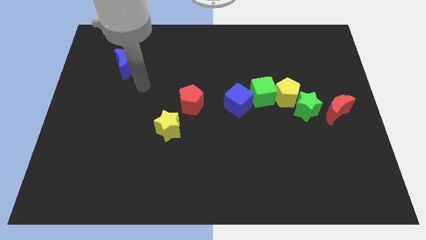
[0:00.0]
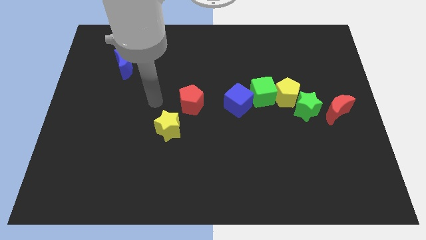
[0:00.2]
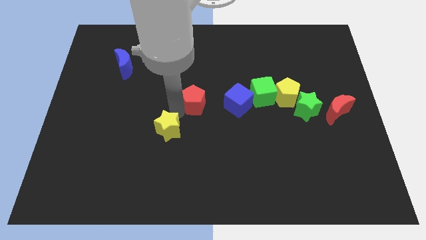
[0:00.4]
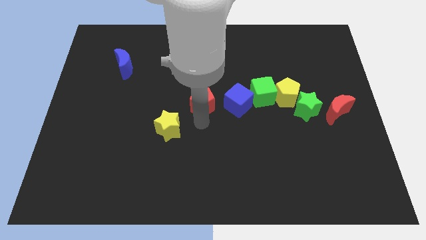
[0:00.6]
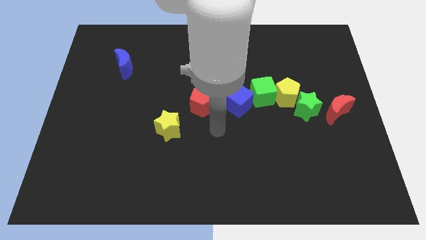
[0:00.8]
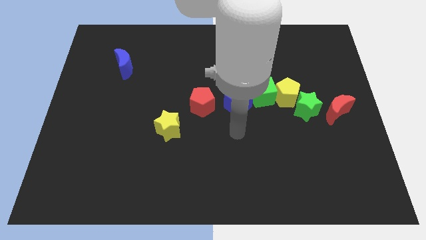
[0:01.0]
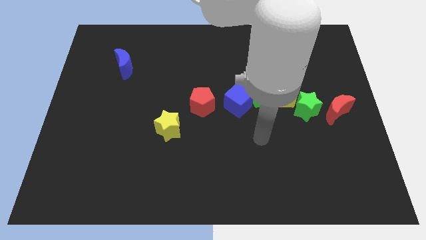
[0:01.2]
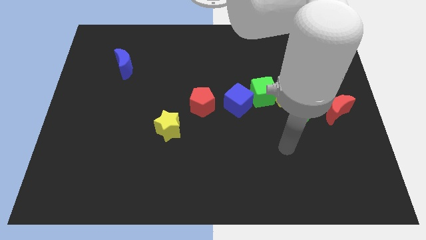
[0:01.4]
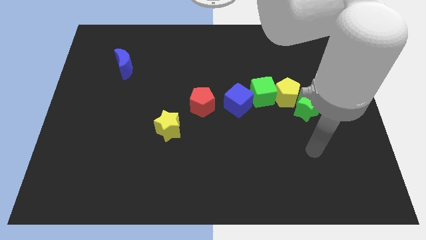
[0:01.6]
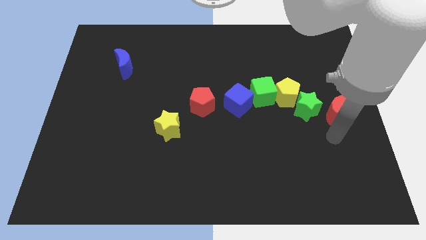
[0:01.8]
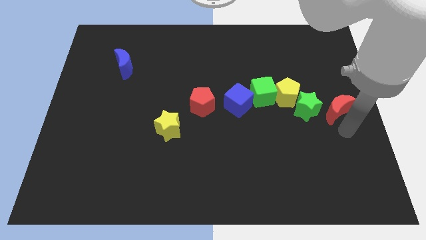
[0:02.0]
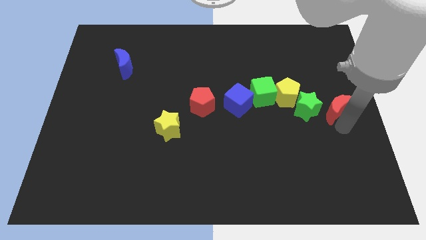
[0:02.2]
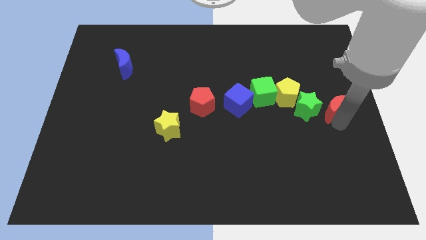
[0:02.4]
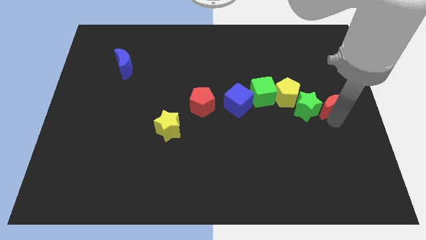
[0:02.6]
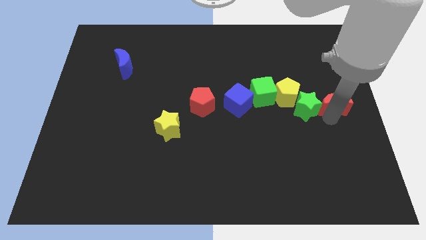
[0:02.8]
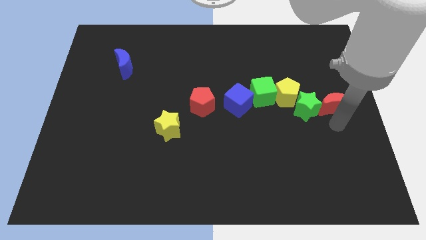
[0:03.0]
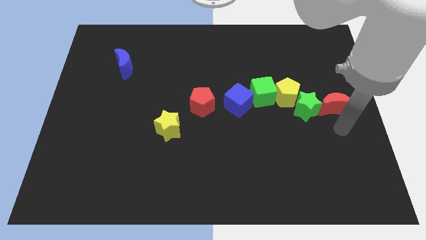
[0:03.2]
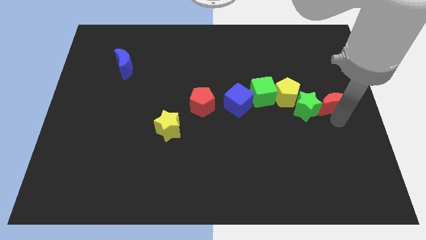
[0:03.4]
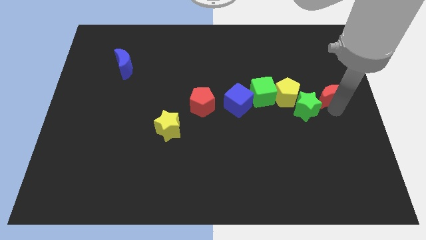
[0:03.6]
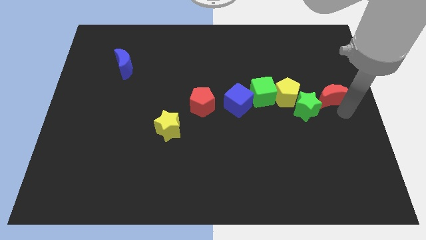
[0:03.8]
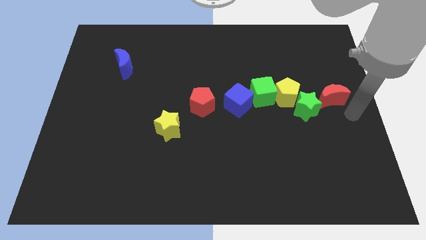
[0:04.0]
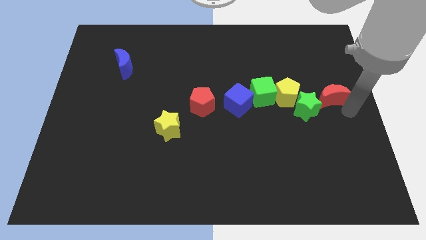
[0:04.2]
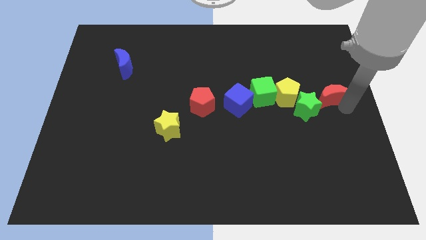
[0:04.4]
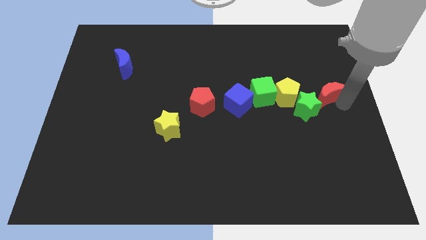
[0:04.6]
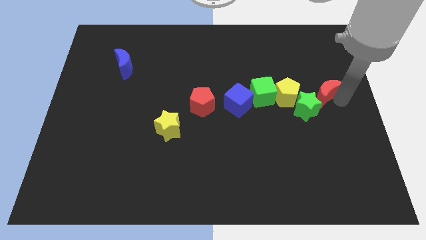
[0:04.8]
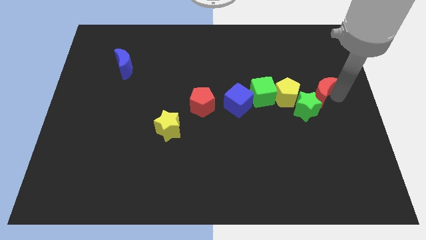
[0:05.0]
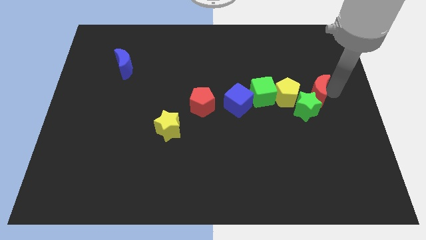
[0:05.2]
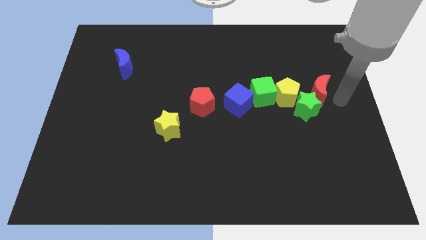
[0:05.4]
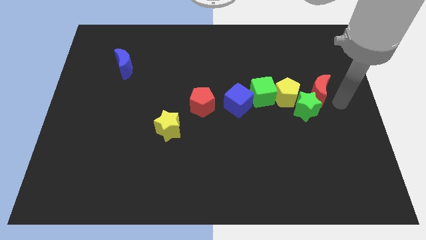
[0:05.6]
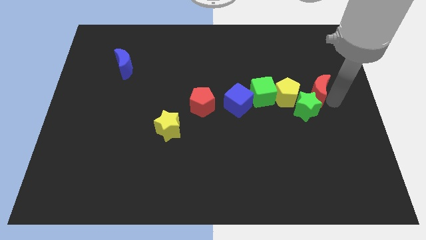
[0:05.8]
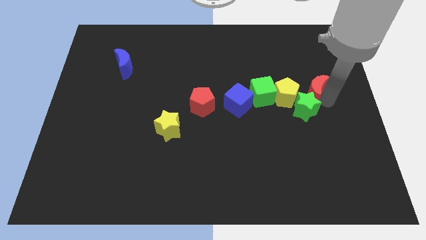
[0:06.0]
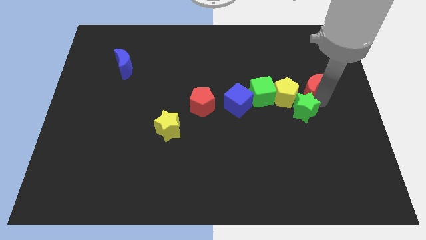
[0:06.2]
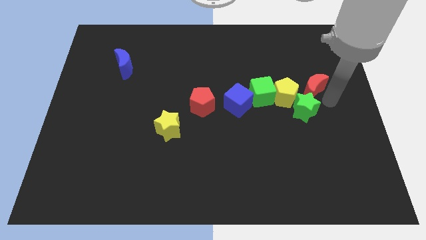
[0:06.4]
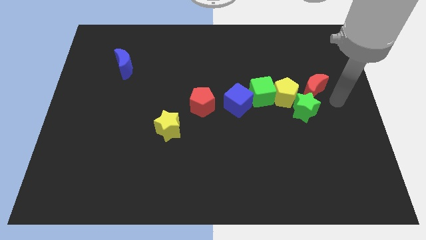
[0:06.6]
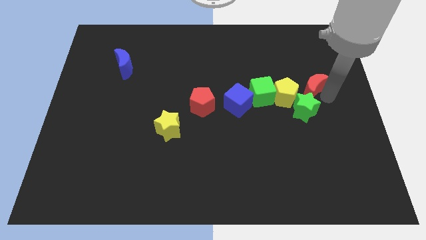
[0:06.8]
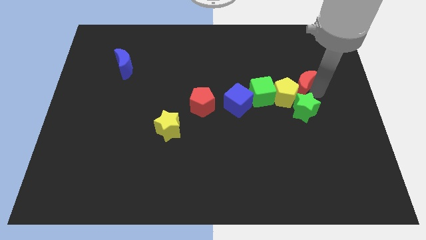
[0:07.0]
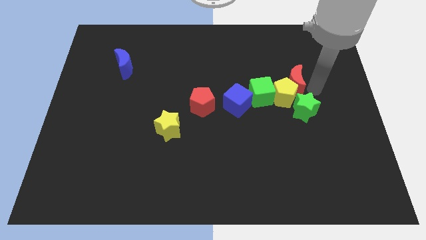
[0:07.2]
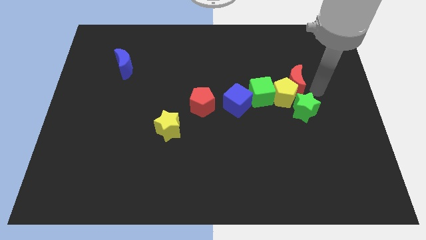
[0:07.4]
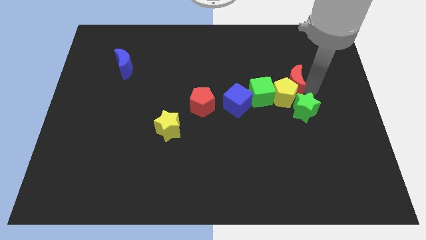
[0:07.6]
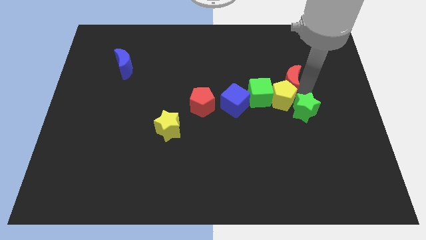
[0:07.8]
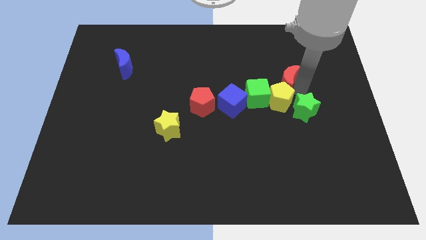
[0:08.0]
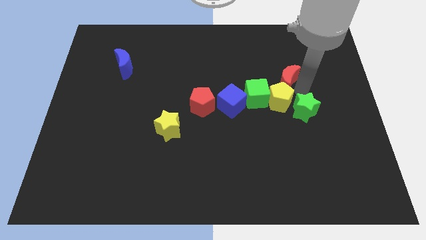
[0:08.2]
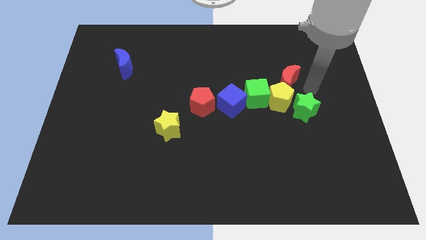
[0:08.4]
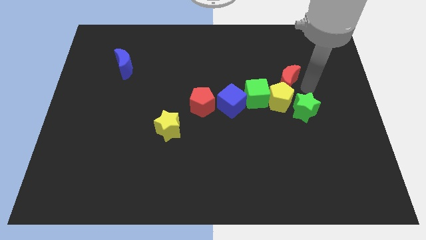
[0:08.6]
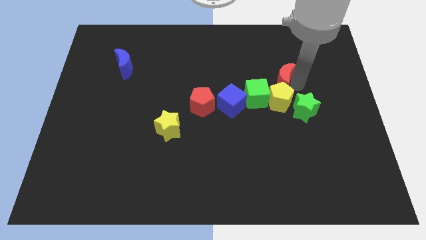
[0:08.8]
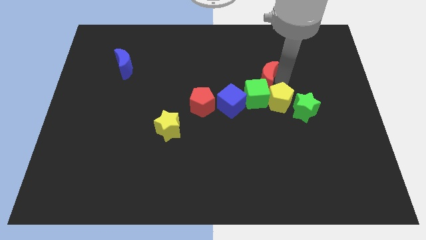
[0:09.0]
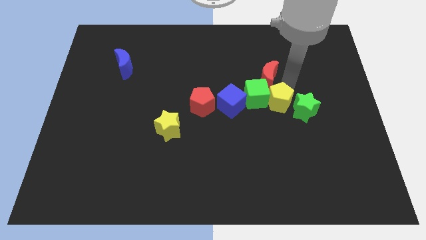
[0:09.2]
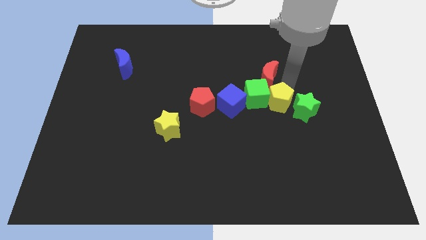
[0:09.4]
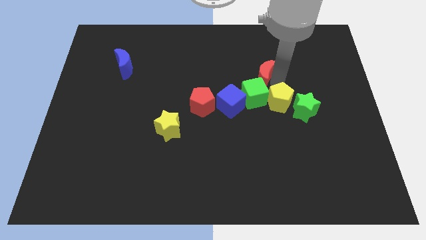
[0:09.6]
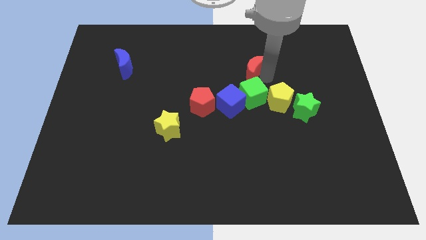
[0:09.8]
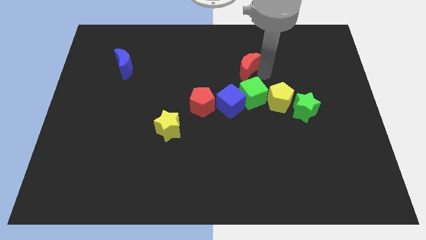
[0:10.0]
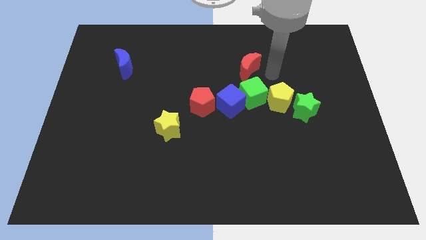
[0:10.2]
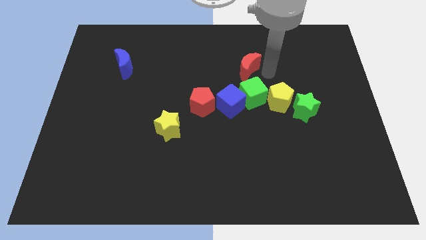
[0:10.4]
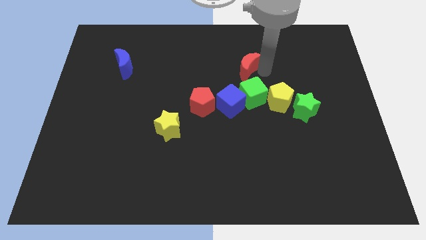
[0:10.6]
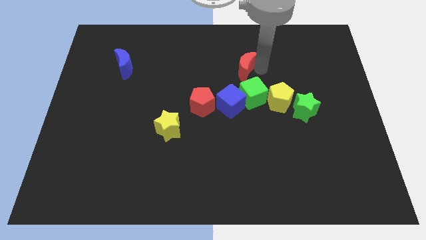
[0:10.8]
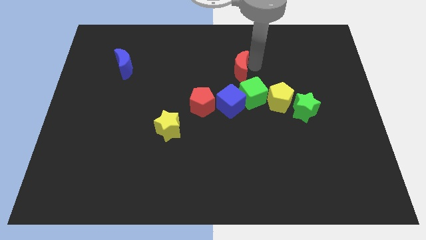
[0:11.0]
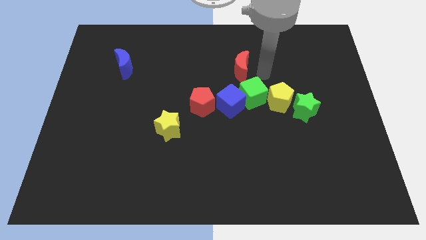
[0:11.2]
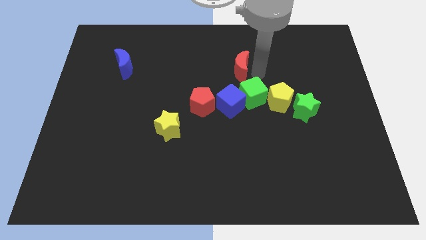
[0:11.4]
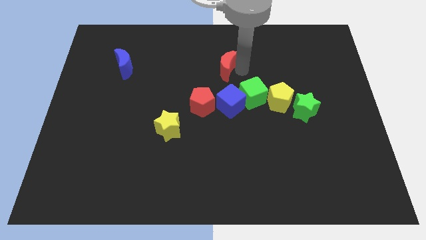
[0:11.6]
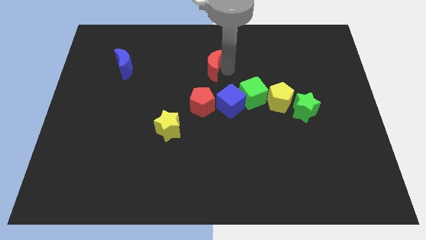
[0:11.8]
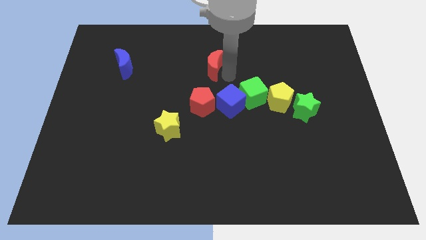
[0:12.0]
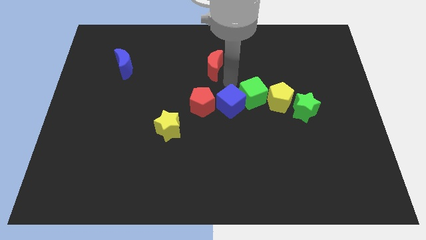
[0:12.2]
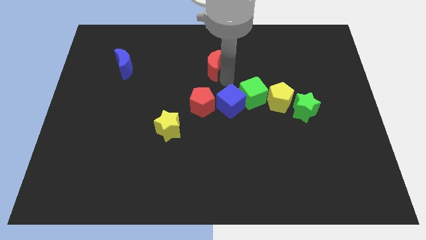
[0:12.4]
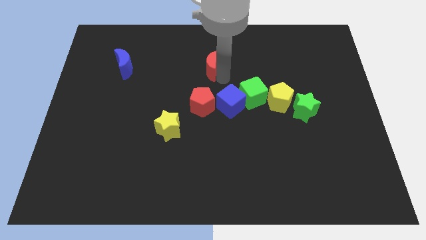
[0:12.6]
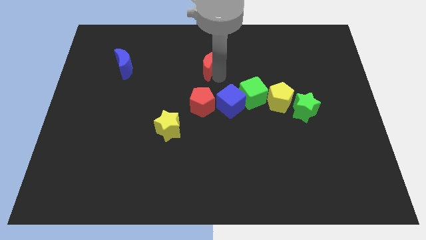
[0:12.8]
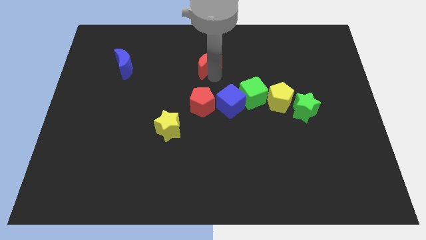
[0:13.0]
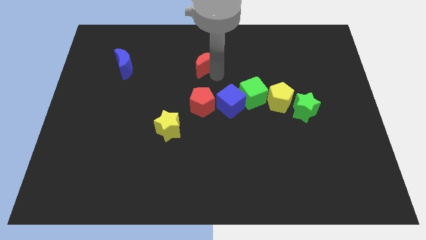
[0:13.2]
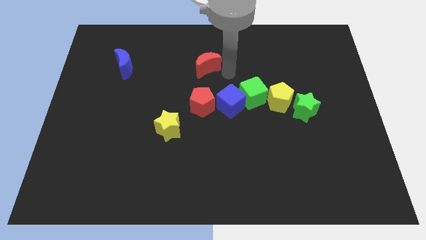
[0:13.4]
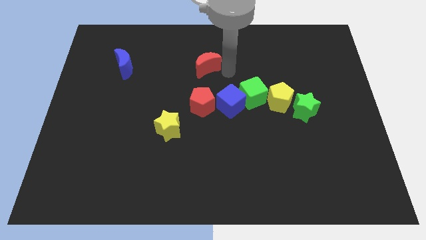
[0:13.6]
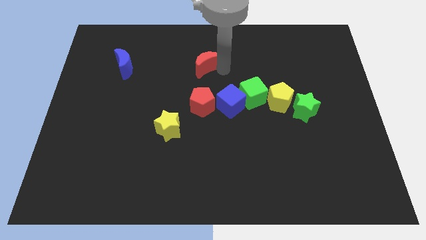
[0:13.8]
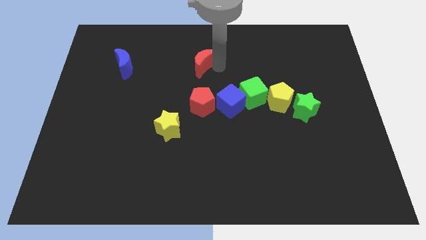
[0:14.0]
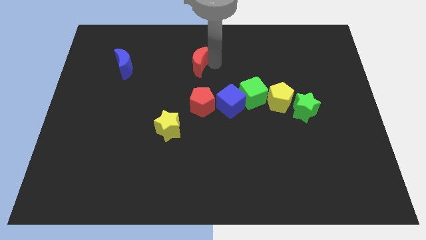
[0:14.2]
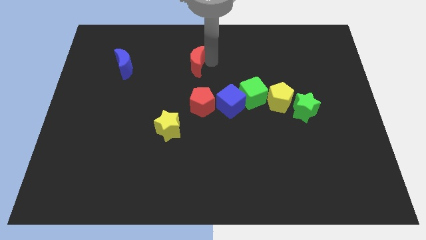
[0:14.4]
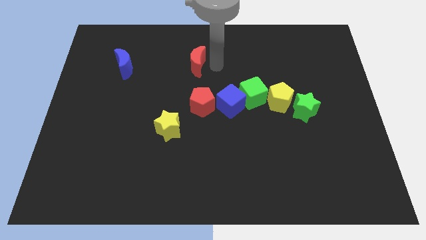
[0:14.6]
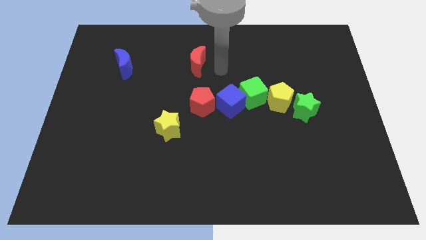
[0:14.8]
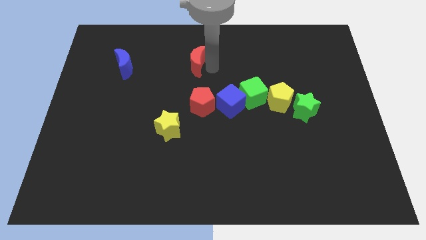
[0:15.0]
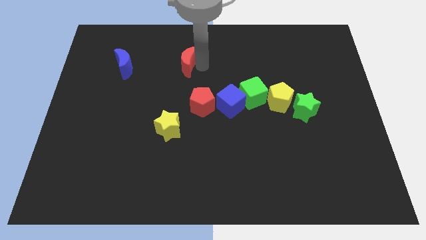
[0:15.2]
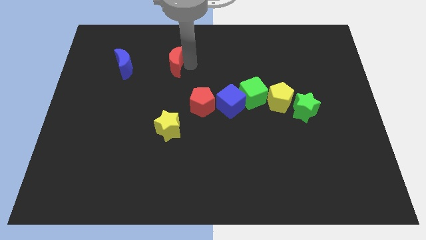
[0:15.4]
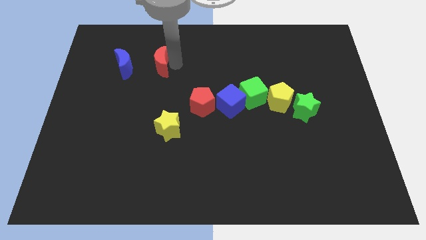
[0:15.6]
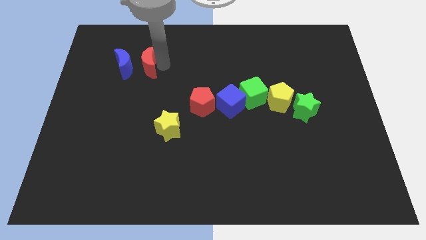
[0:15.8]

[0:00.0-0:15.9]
move the red moon next to the blue moon
